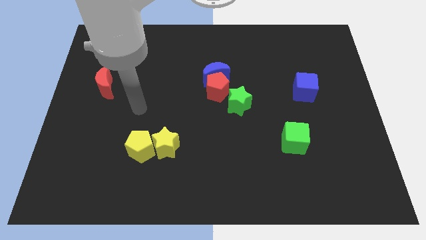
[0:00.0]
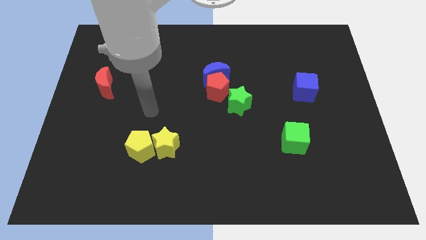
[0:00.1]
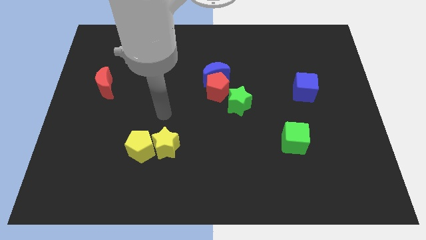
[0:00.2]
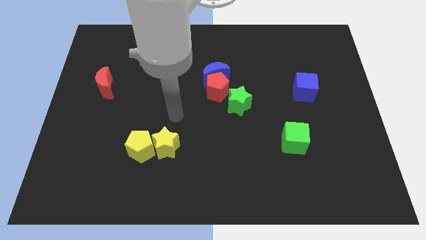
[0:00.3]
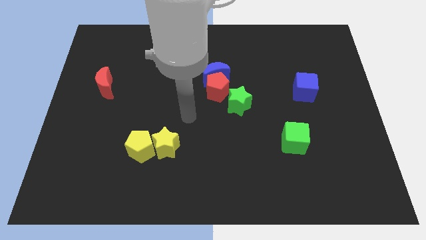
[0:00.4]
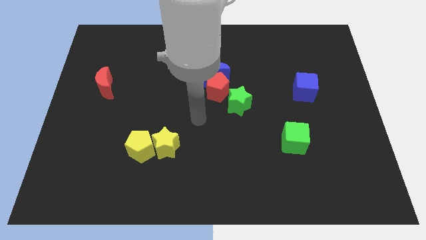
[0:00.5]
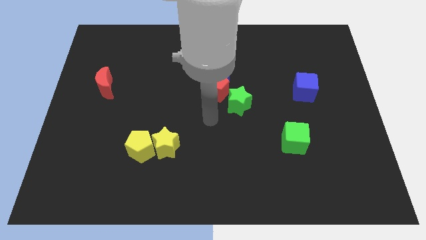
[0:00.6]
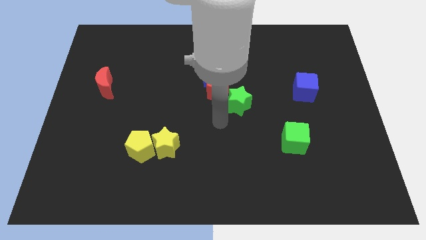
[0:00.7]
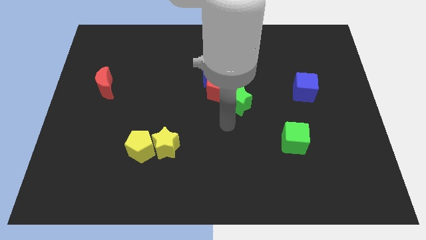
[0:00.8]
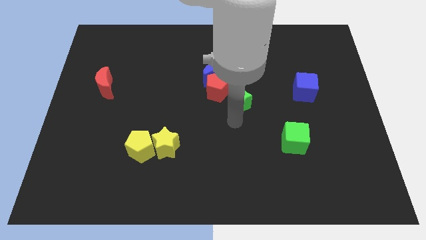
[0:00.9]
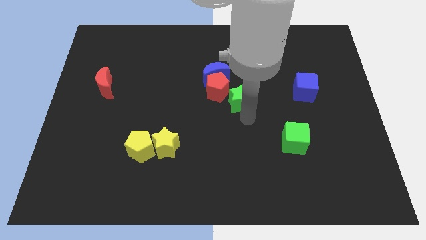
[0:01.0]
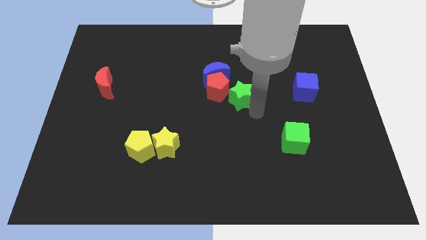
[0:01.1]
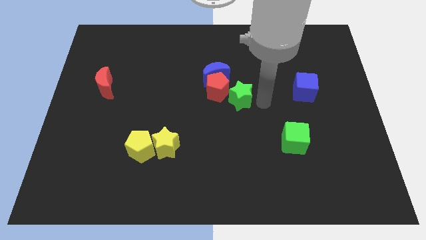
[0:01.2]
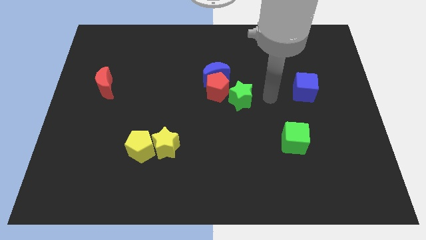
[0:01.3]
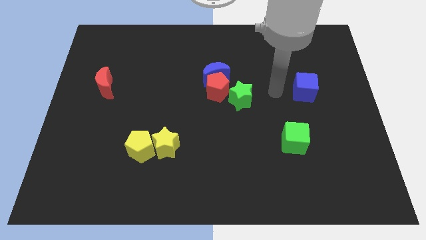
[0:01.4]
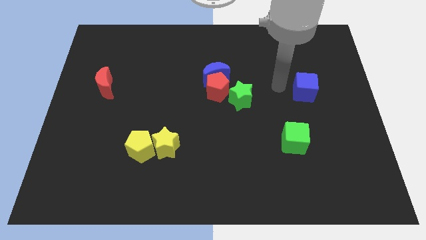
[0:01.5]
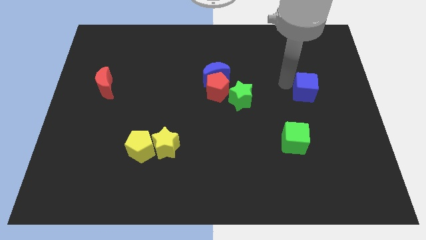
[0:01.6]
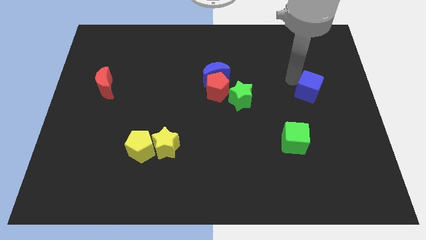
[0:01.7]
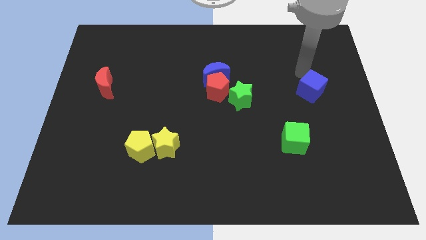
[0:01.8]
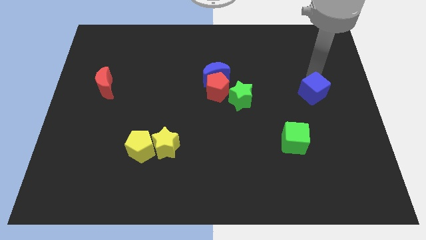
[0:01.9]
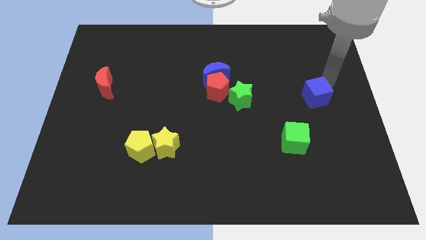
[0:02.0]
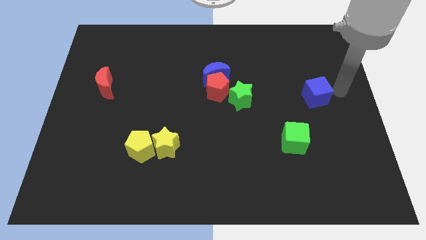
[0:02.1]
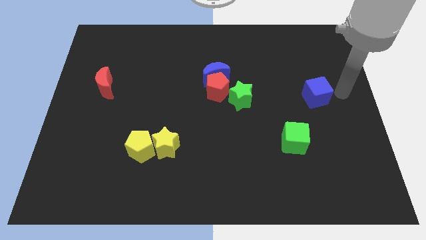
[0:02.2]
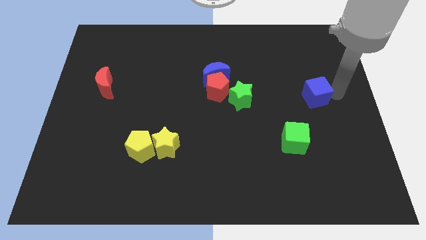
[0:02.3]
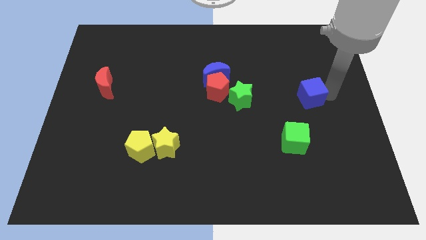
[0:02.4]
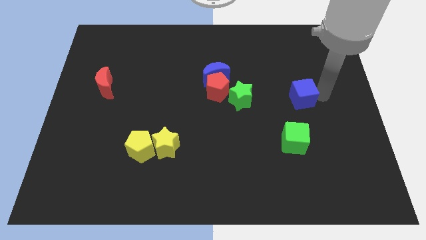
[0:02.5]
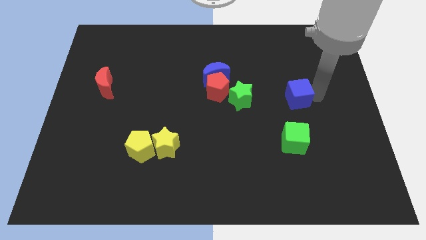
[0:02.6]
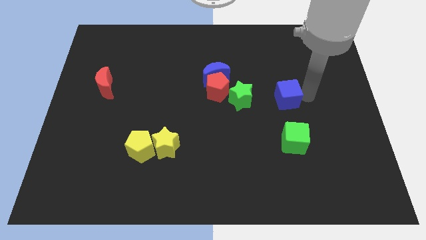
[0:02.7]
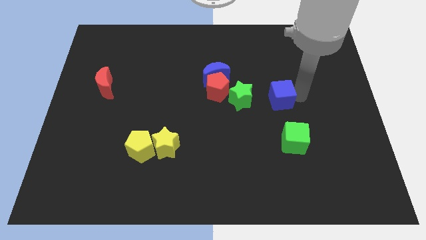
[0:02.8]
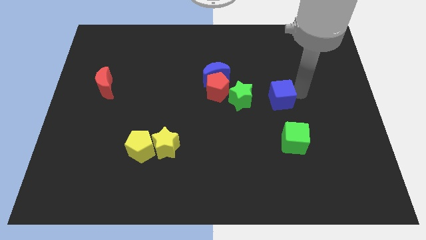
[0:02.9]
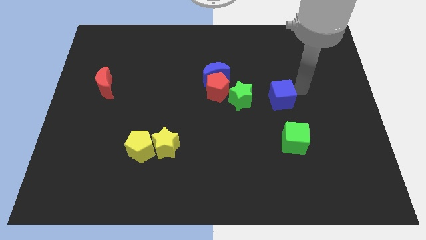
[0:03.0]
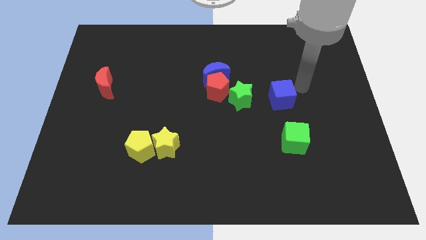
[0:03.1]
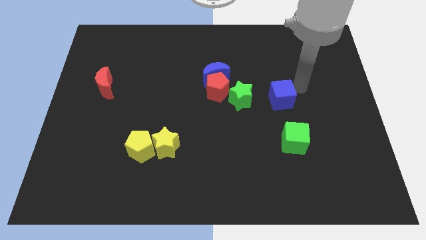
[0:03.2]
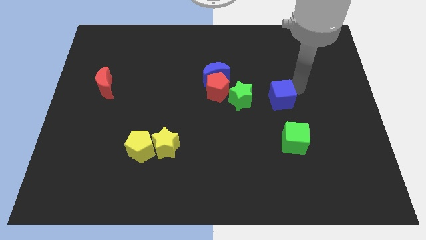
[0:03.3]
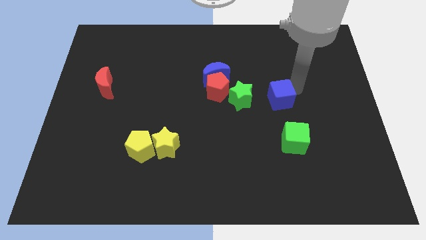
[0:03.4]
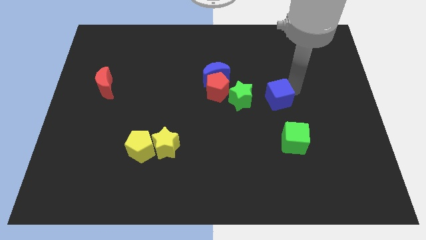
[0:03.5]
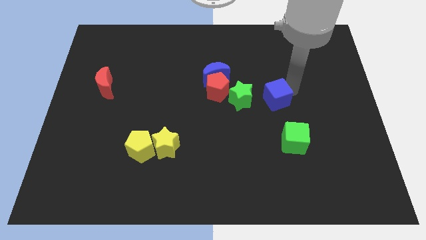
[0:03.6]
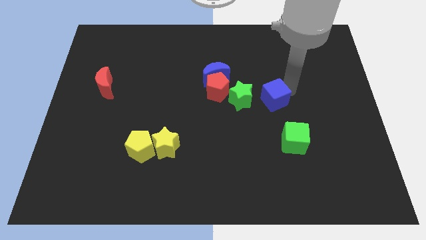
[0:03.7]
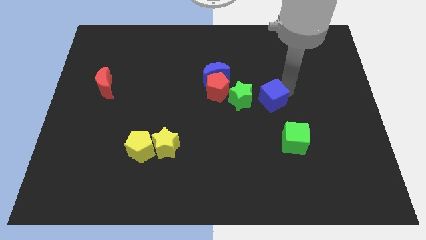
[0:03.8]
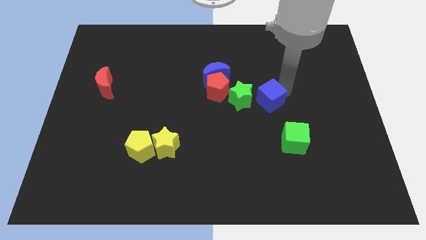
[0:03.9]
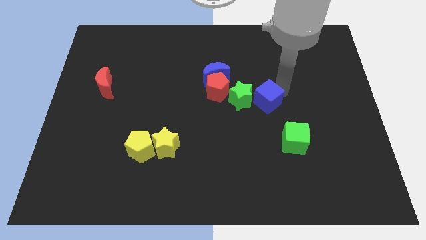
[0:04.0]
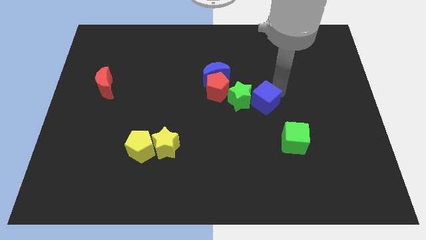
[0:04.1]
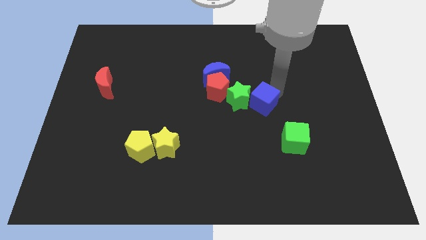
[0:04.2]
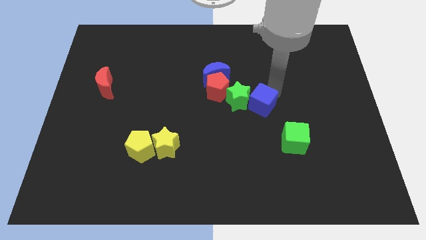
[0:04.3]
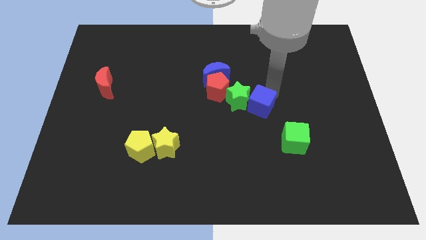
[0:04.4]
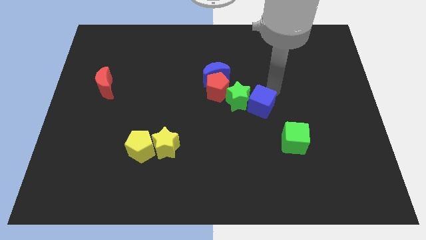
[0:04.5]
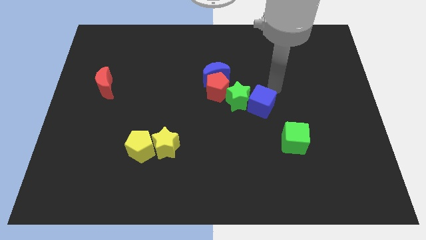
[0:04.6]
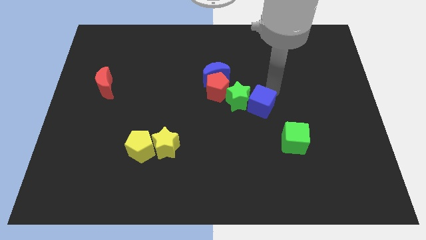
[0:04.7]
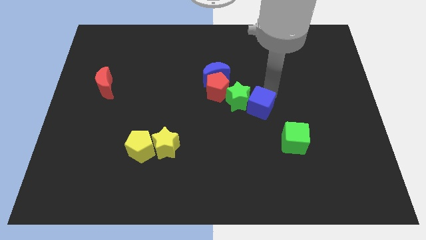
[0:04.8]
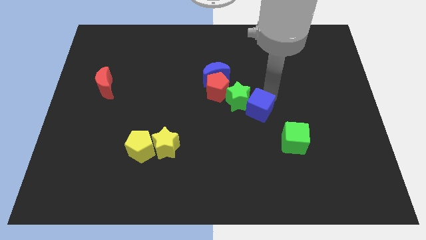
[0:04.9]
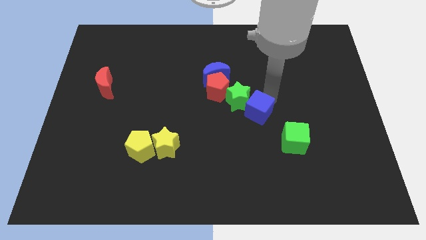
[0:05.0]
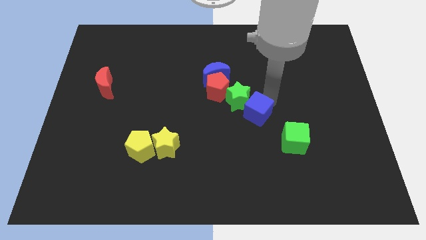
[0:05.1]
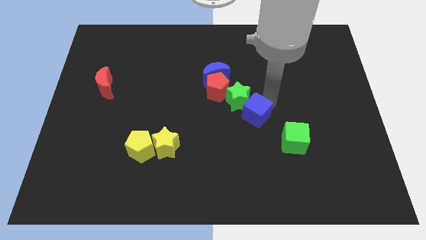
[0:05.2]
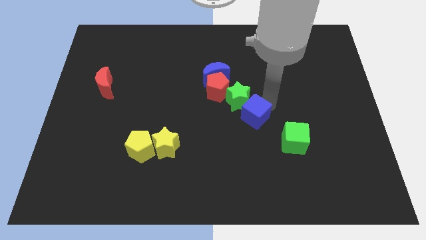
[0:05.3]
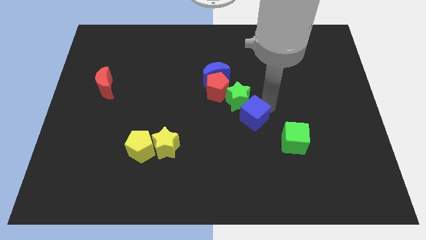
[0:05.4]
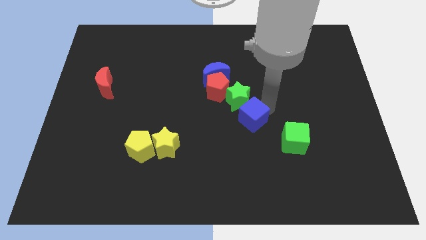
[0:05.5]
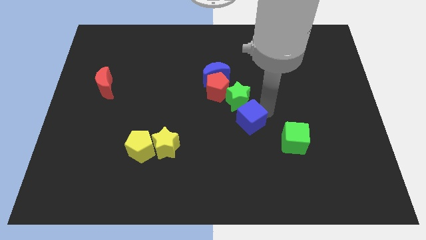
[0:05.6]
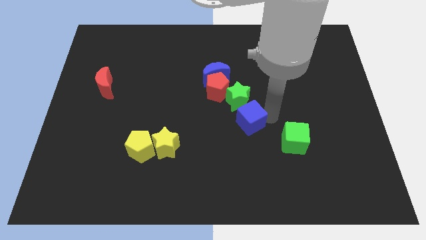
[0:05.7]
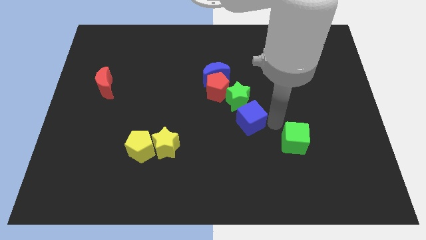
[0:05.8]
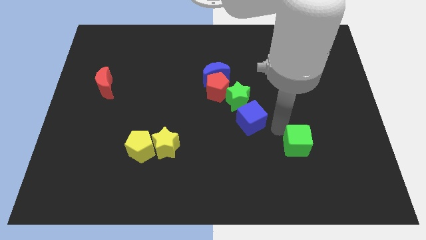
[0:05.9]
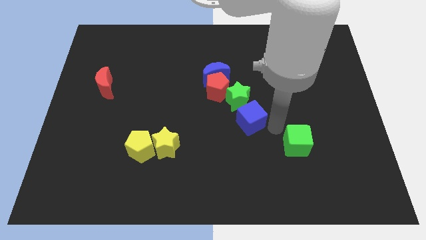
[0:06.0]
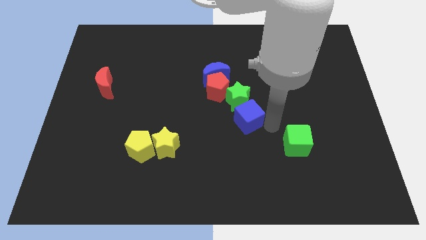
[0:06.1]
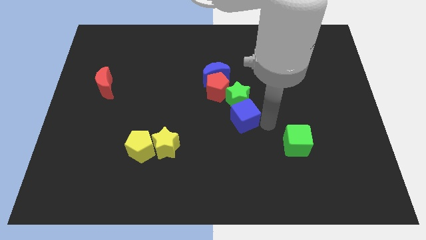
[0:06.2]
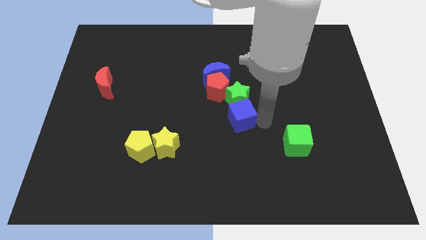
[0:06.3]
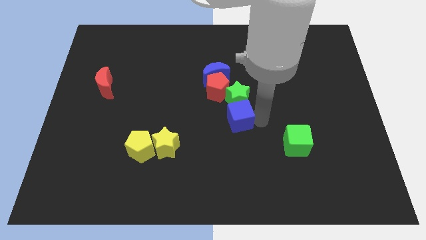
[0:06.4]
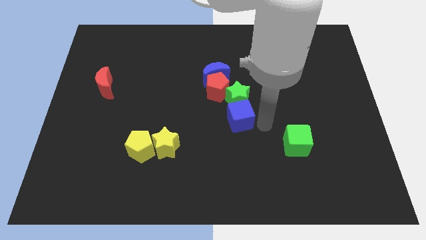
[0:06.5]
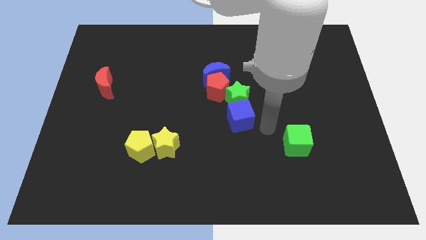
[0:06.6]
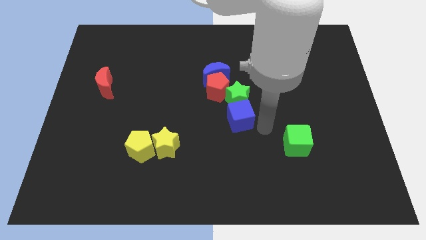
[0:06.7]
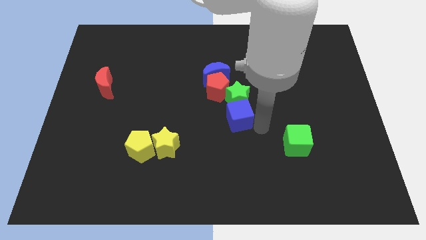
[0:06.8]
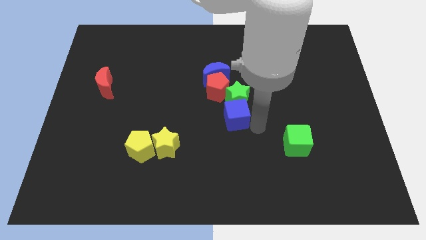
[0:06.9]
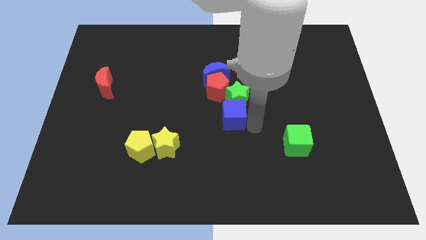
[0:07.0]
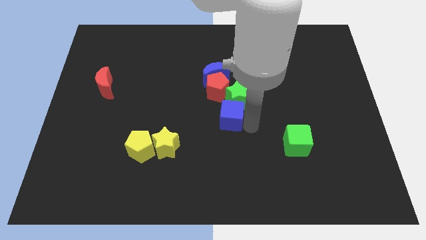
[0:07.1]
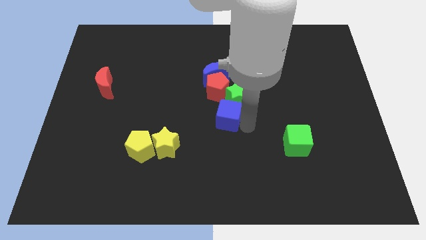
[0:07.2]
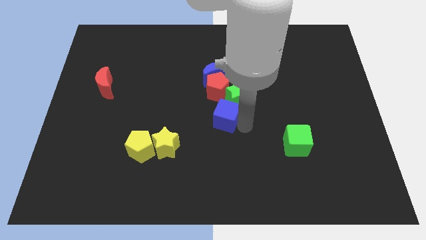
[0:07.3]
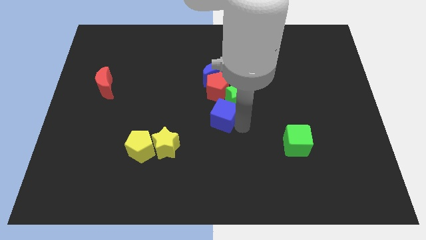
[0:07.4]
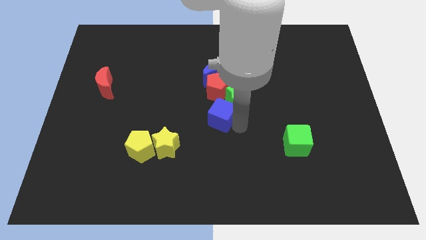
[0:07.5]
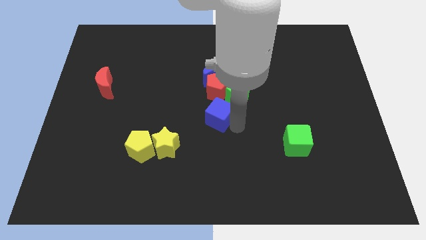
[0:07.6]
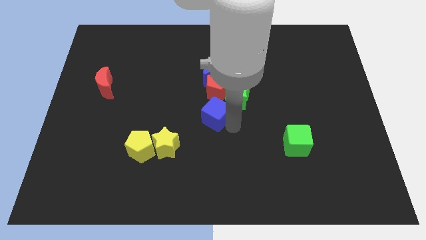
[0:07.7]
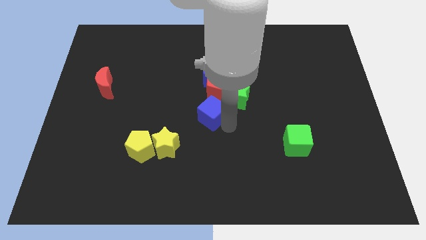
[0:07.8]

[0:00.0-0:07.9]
slide the blue cube left

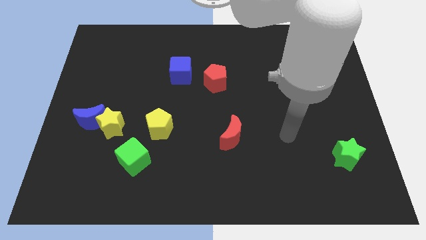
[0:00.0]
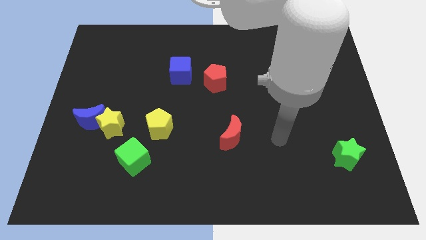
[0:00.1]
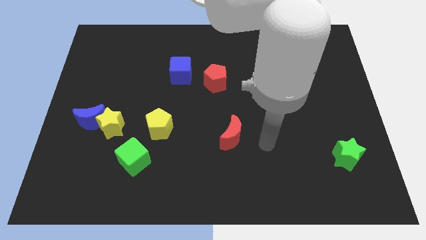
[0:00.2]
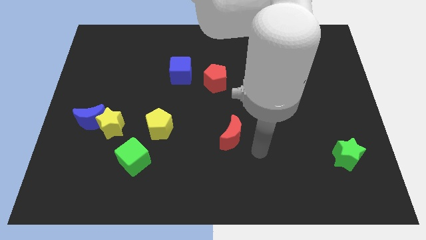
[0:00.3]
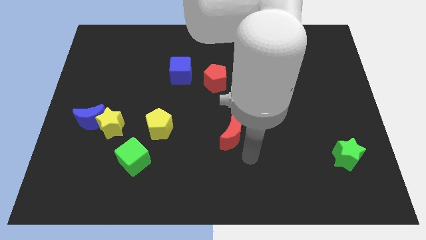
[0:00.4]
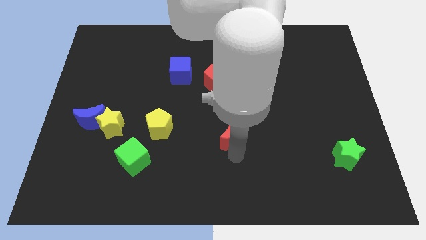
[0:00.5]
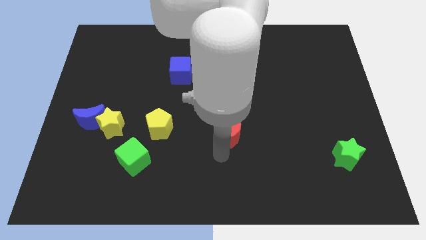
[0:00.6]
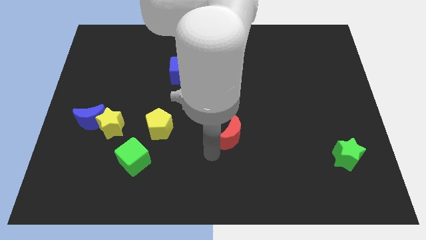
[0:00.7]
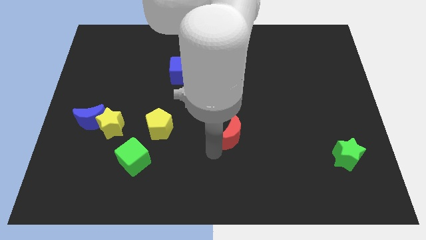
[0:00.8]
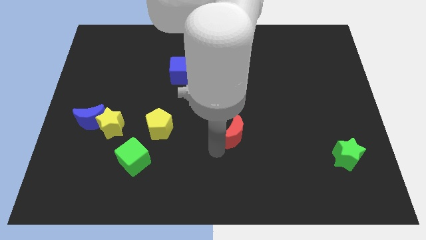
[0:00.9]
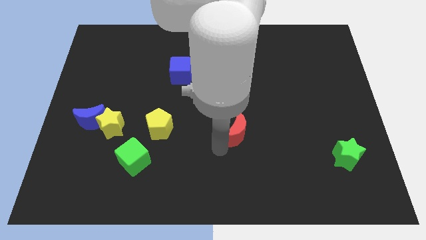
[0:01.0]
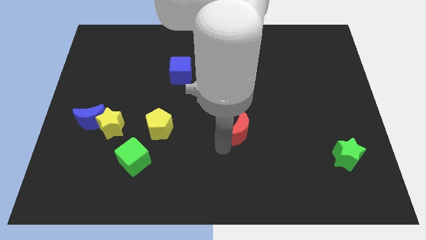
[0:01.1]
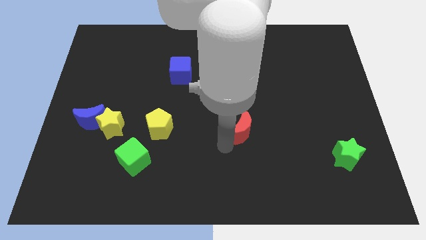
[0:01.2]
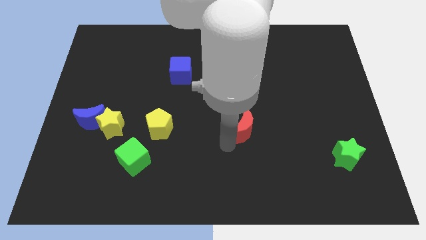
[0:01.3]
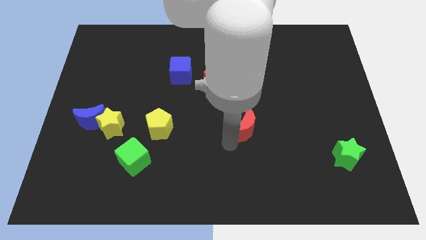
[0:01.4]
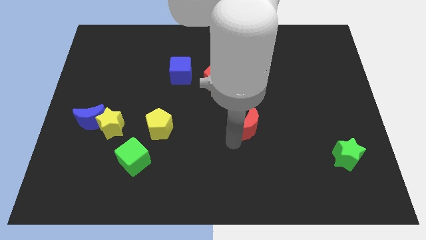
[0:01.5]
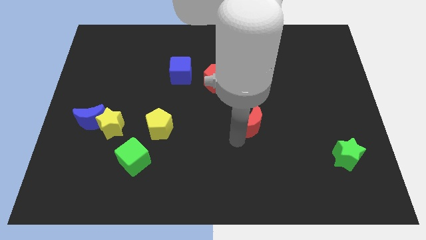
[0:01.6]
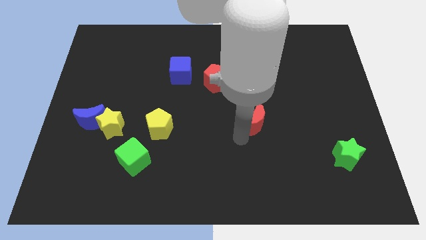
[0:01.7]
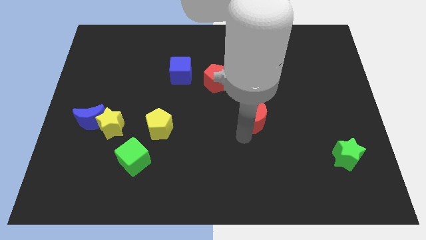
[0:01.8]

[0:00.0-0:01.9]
push the red moon up and then right somewhat
